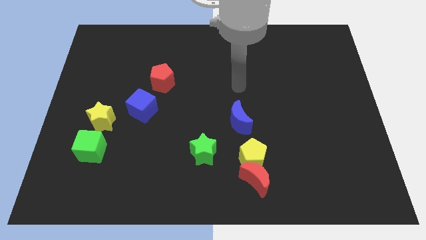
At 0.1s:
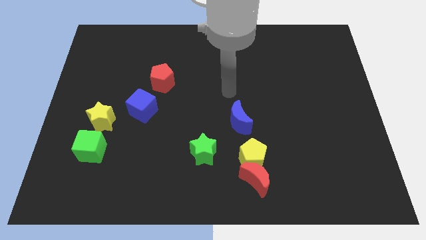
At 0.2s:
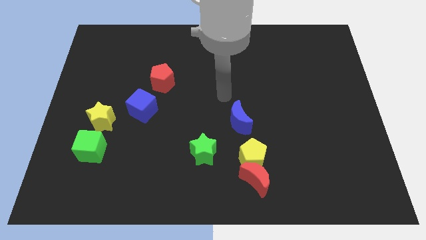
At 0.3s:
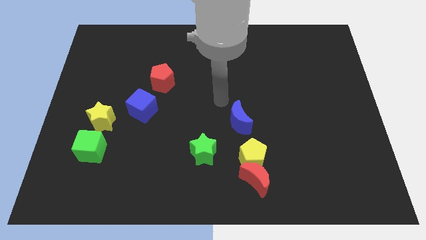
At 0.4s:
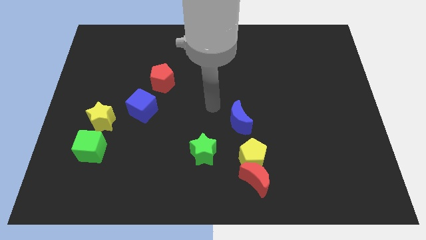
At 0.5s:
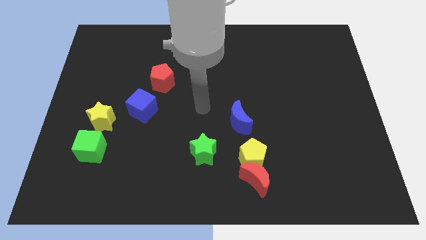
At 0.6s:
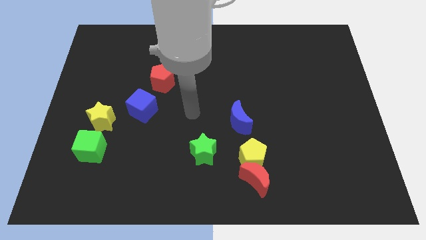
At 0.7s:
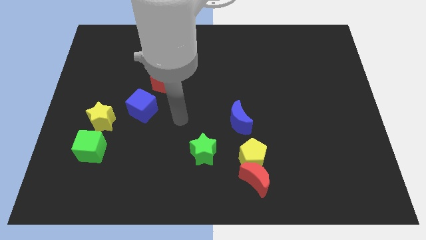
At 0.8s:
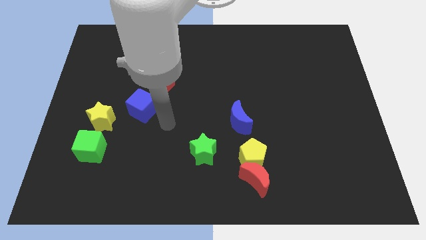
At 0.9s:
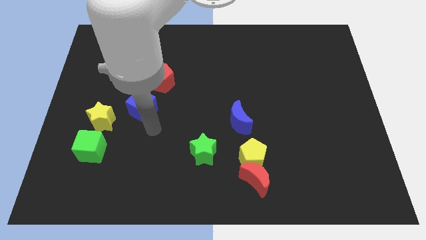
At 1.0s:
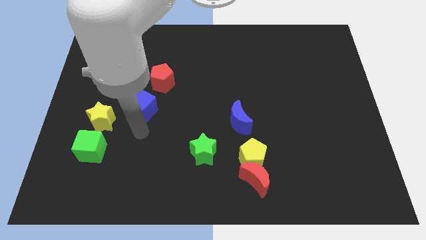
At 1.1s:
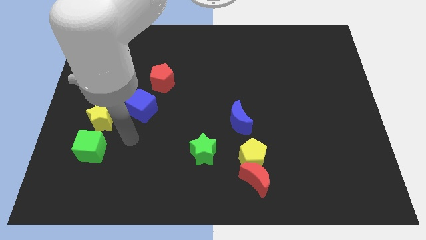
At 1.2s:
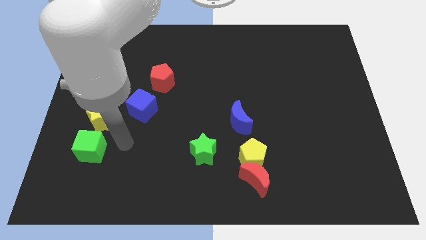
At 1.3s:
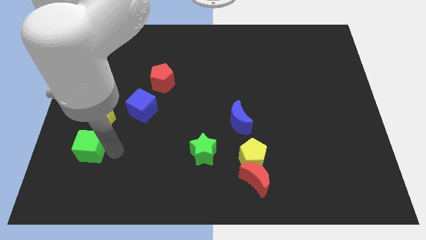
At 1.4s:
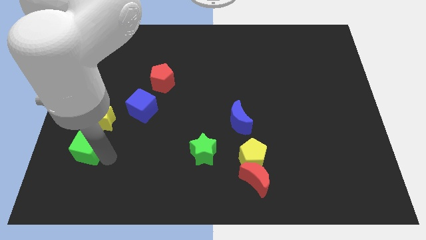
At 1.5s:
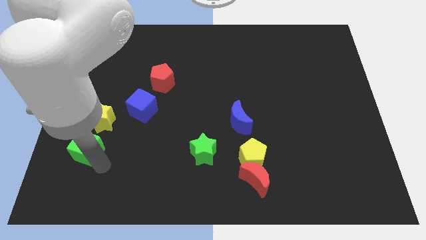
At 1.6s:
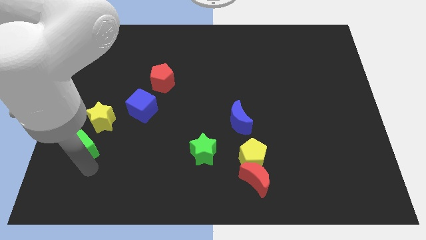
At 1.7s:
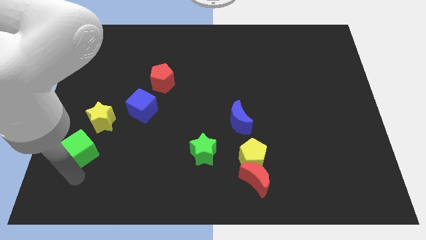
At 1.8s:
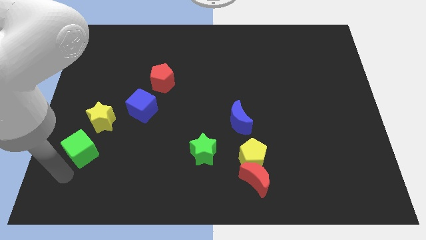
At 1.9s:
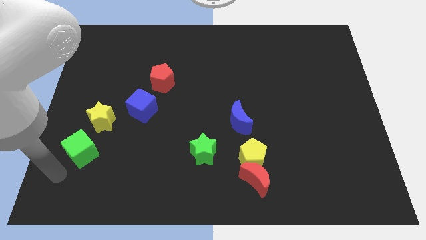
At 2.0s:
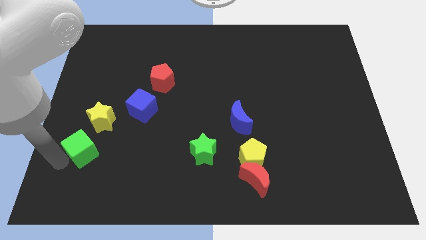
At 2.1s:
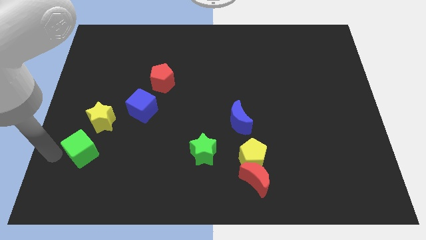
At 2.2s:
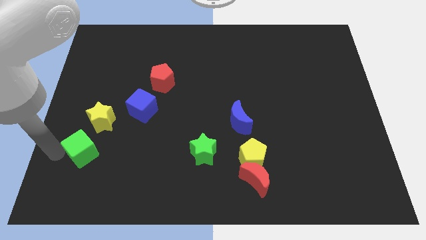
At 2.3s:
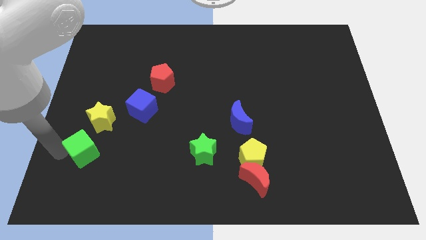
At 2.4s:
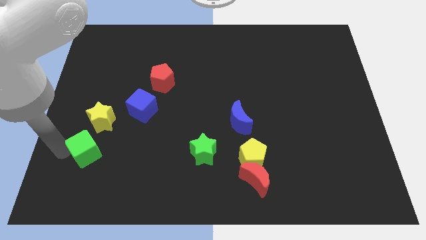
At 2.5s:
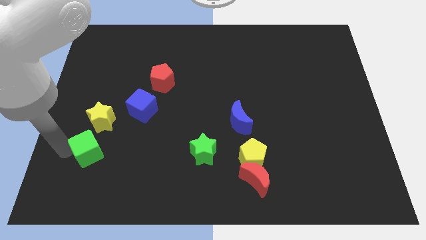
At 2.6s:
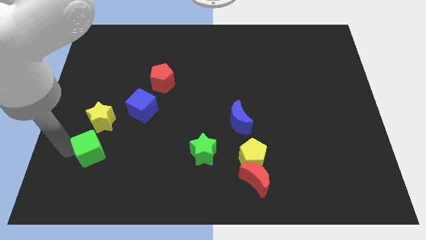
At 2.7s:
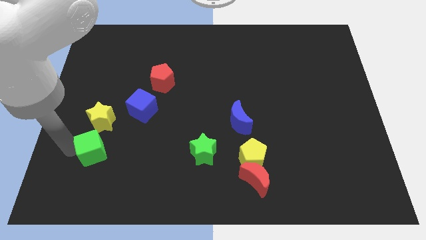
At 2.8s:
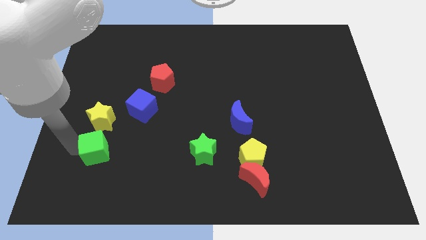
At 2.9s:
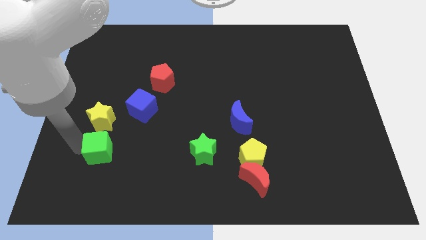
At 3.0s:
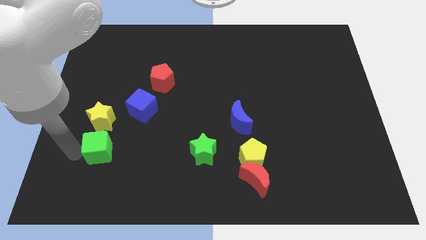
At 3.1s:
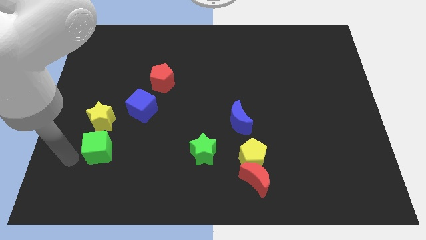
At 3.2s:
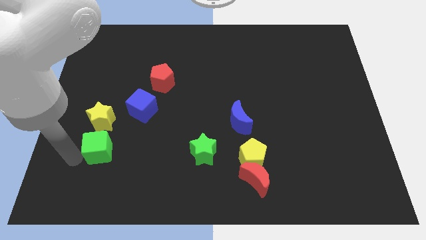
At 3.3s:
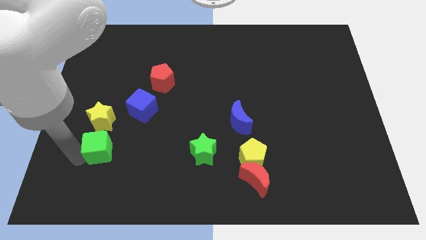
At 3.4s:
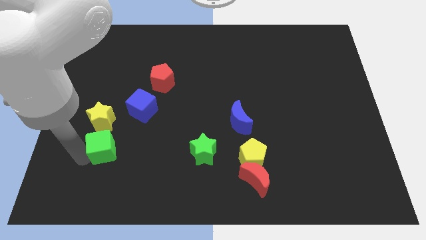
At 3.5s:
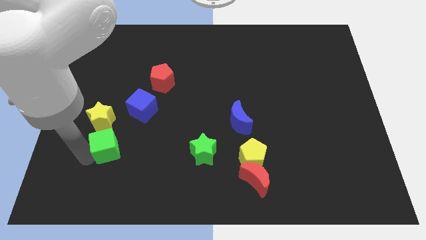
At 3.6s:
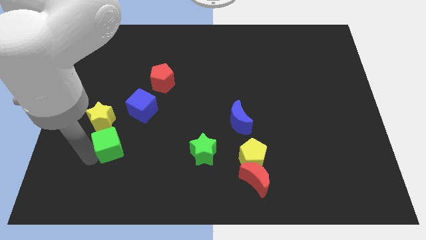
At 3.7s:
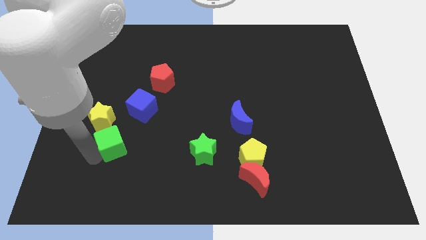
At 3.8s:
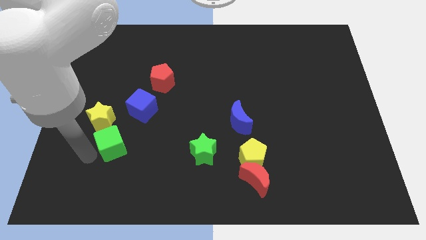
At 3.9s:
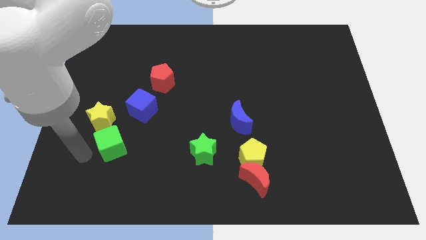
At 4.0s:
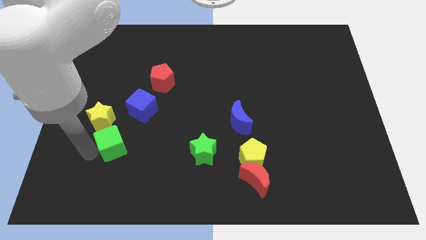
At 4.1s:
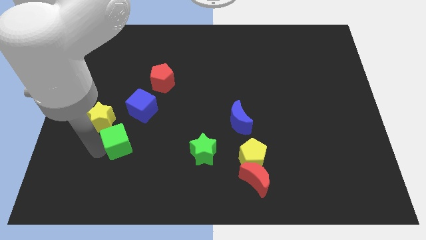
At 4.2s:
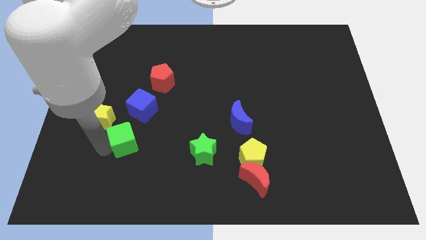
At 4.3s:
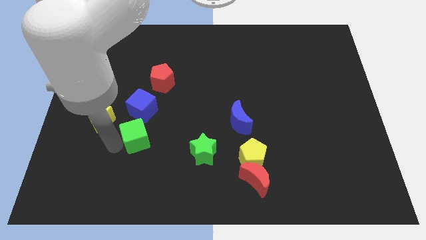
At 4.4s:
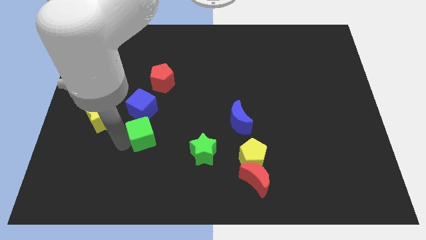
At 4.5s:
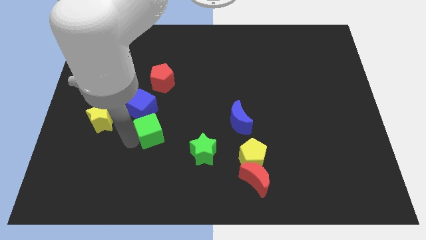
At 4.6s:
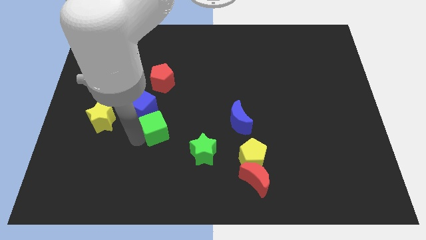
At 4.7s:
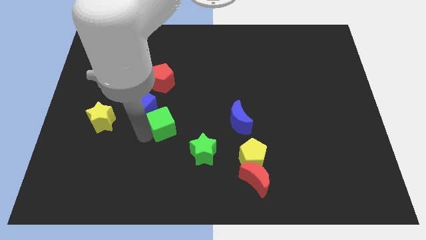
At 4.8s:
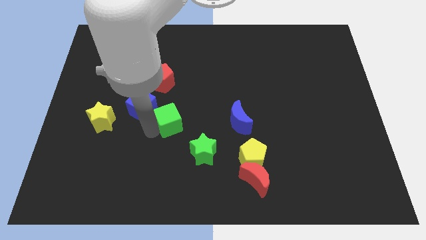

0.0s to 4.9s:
slide the green cube to the center

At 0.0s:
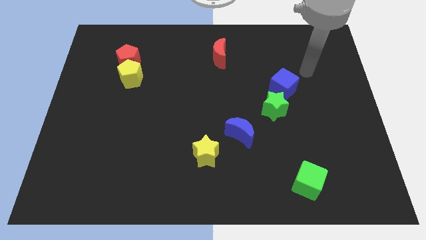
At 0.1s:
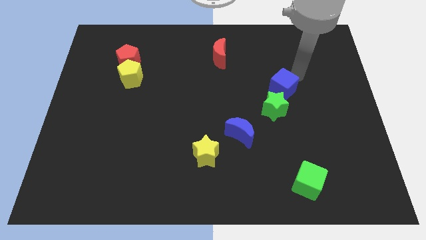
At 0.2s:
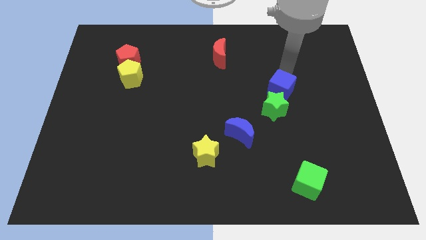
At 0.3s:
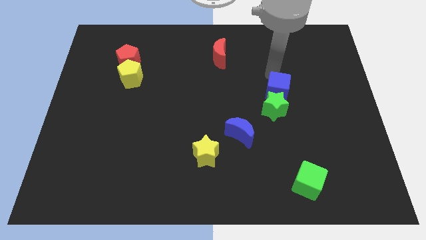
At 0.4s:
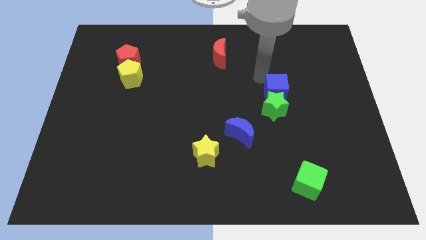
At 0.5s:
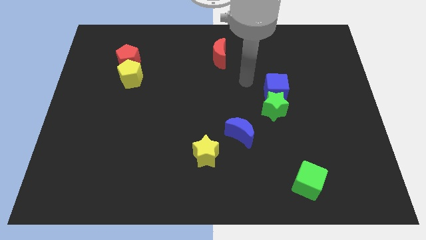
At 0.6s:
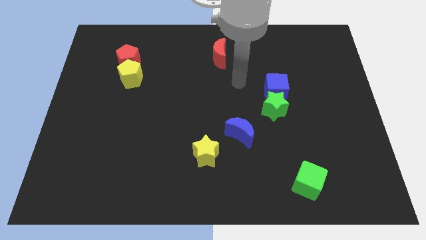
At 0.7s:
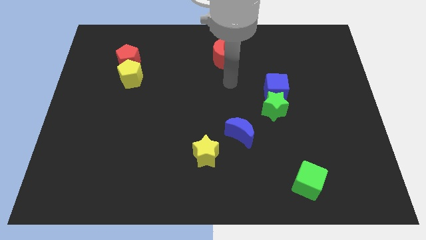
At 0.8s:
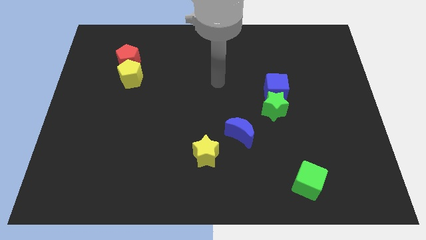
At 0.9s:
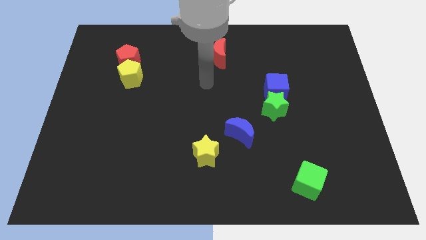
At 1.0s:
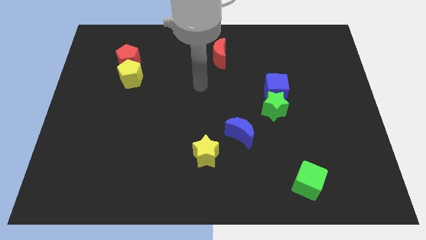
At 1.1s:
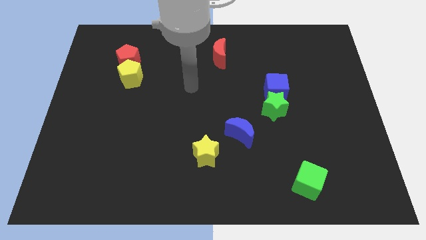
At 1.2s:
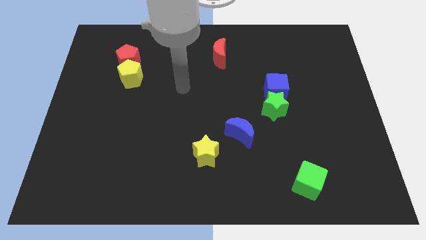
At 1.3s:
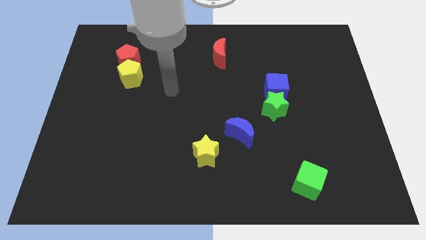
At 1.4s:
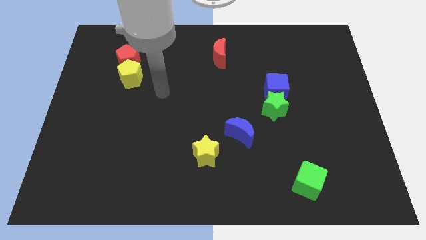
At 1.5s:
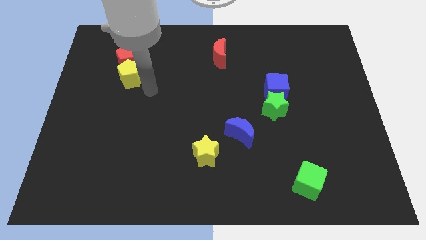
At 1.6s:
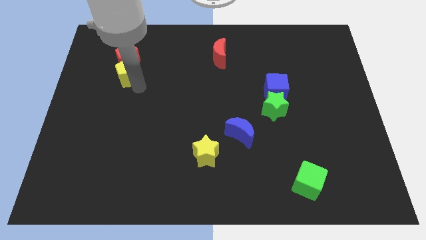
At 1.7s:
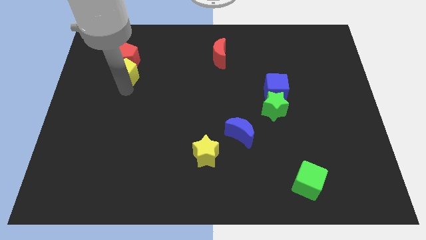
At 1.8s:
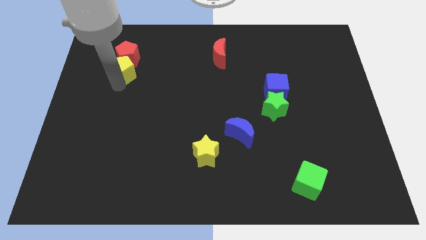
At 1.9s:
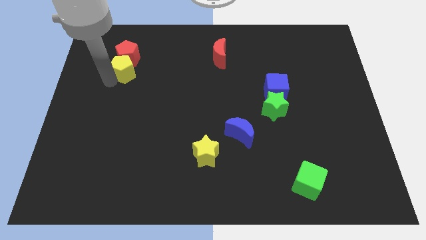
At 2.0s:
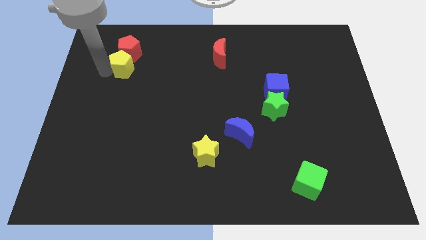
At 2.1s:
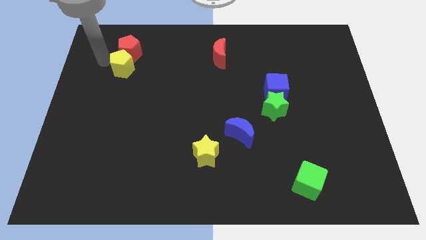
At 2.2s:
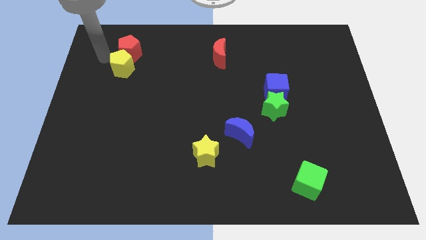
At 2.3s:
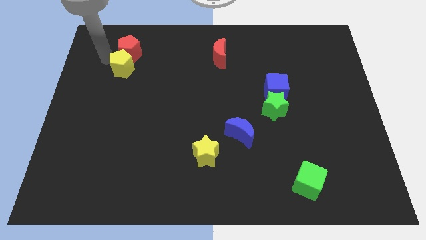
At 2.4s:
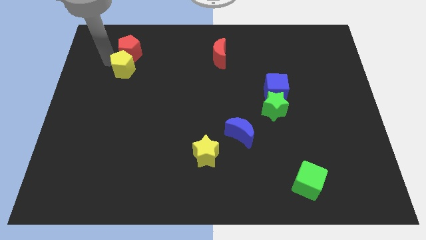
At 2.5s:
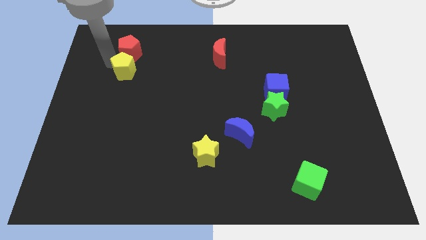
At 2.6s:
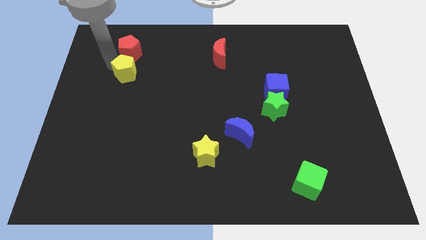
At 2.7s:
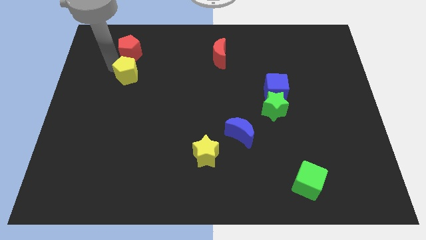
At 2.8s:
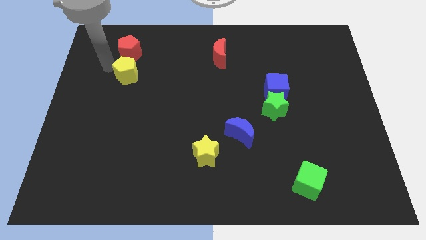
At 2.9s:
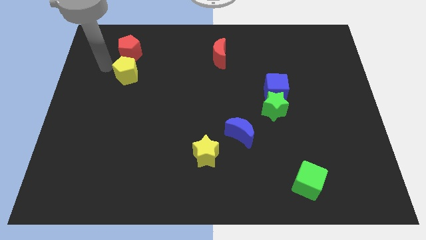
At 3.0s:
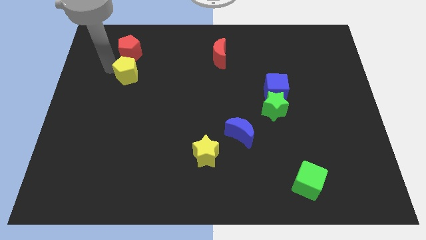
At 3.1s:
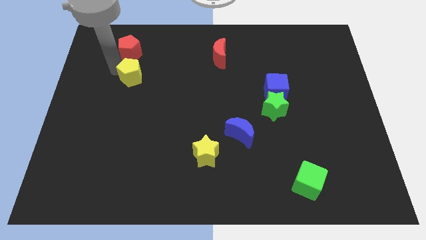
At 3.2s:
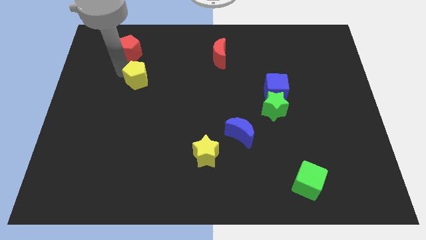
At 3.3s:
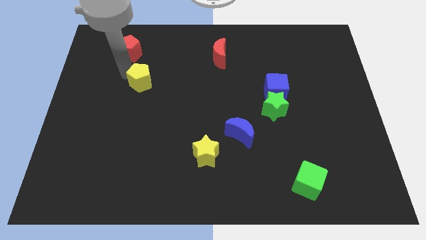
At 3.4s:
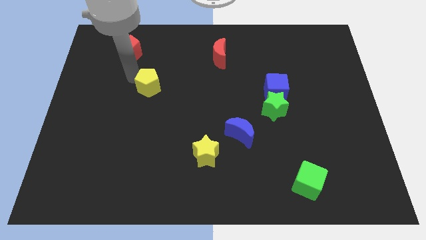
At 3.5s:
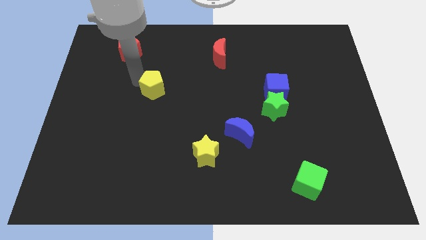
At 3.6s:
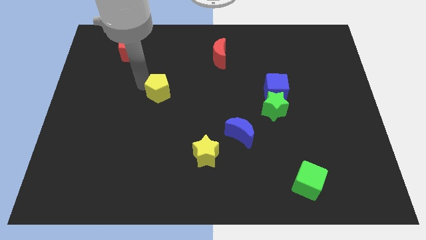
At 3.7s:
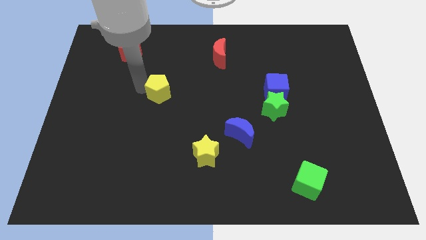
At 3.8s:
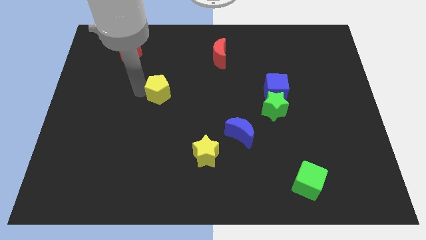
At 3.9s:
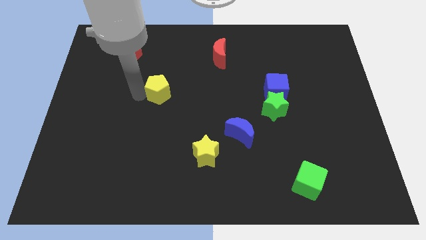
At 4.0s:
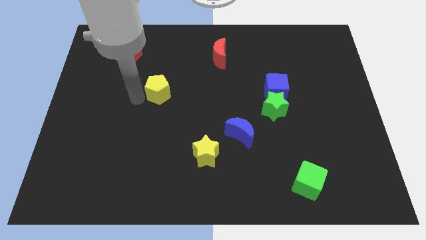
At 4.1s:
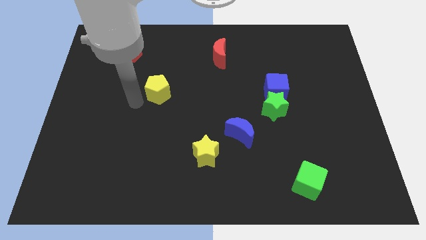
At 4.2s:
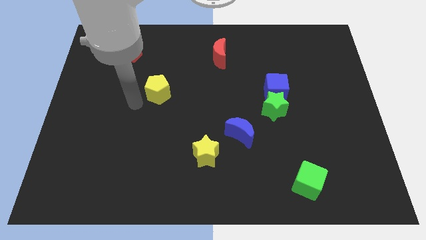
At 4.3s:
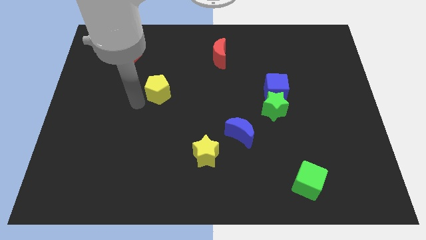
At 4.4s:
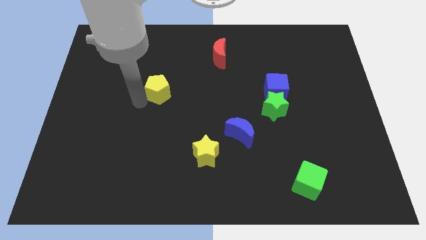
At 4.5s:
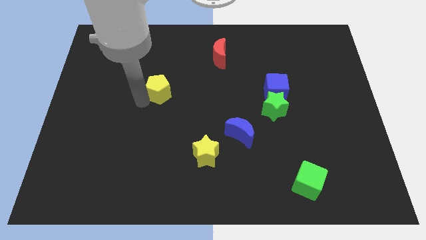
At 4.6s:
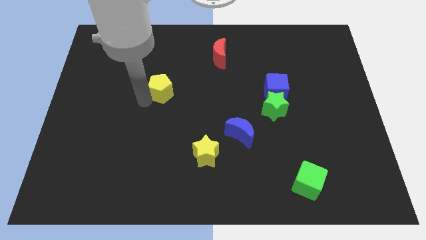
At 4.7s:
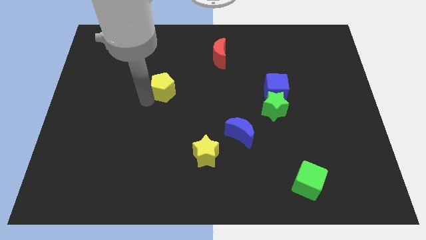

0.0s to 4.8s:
push the yellow pentagon to the middle
